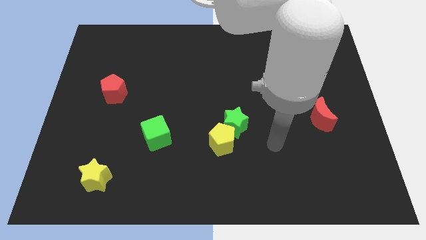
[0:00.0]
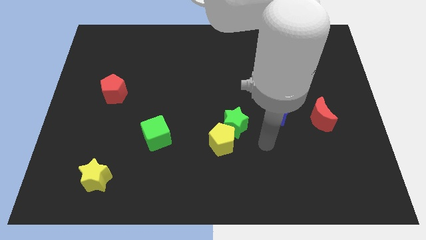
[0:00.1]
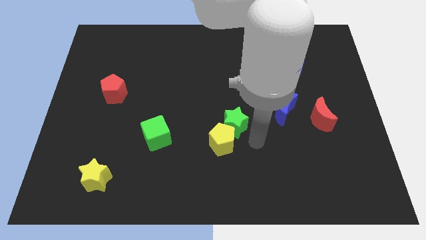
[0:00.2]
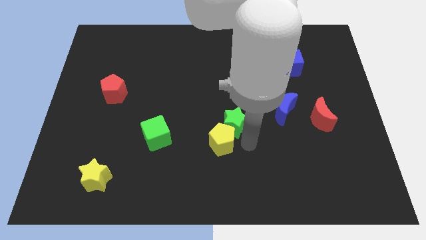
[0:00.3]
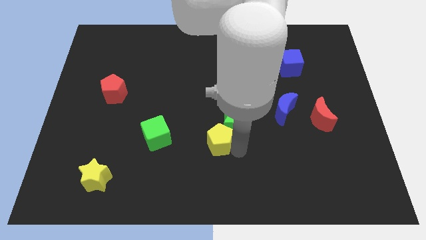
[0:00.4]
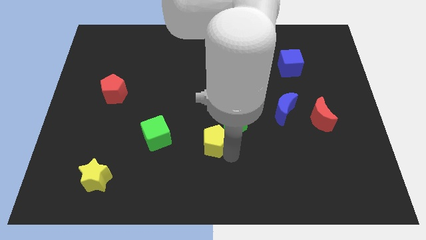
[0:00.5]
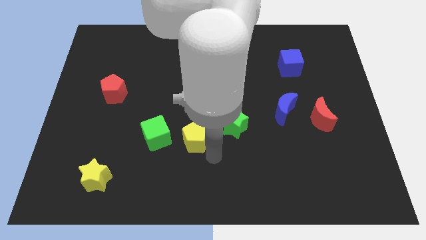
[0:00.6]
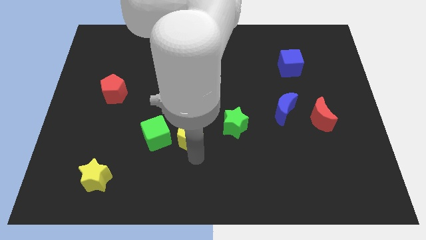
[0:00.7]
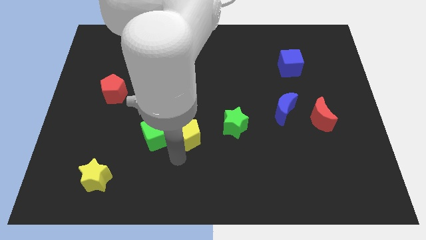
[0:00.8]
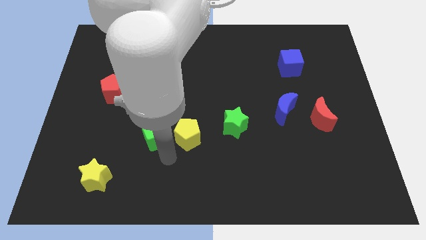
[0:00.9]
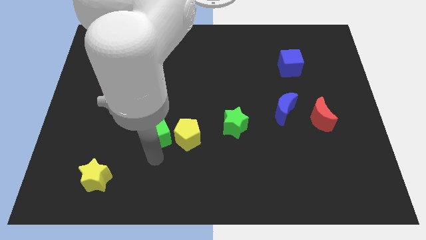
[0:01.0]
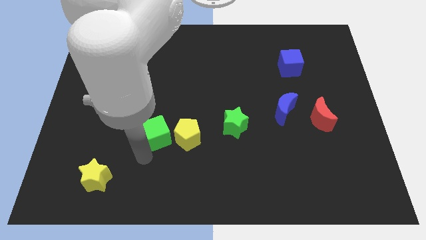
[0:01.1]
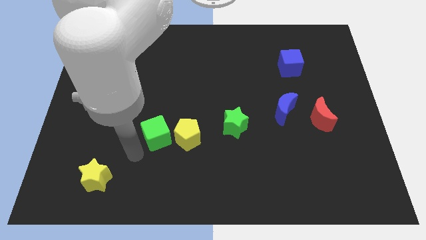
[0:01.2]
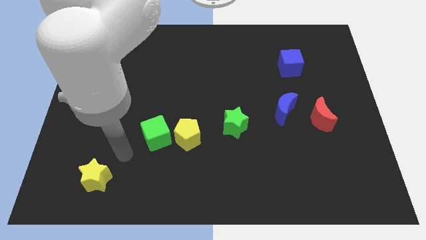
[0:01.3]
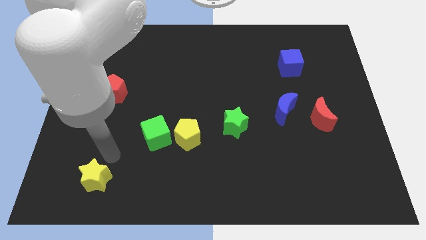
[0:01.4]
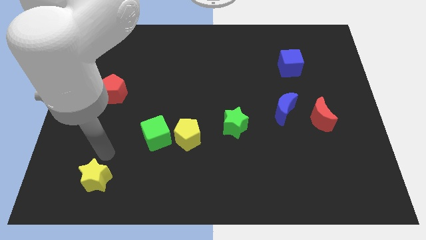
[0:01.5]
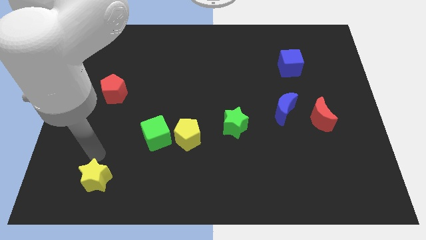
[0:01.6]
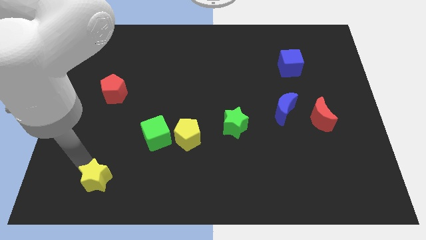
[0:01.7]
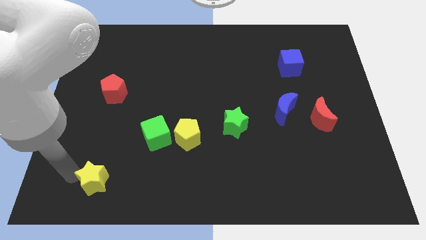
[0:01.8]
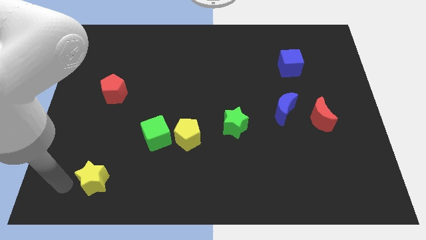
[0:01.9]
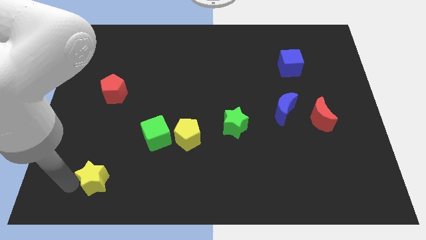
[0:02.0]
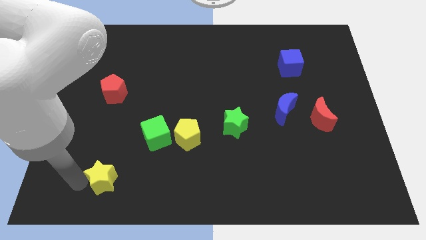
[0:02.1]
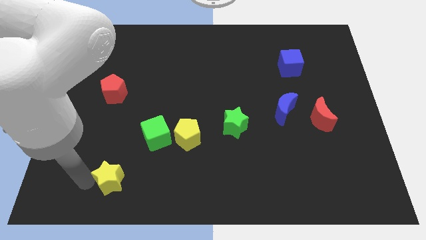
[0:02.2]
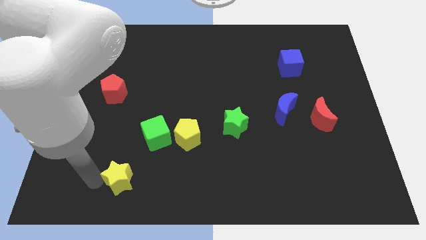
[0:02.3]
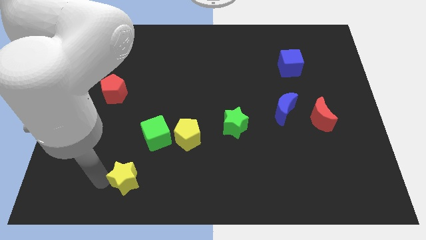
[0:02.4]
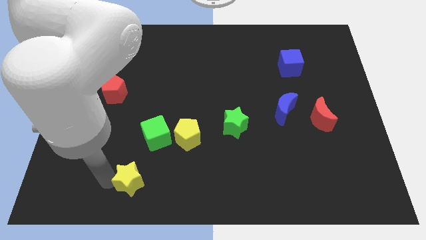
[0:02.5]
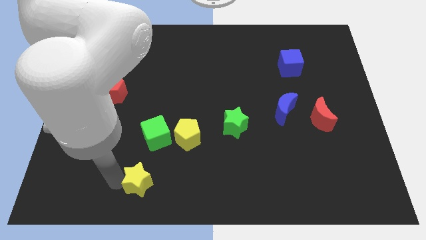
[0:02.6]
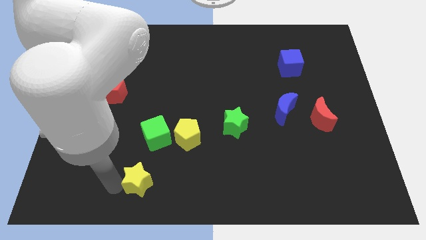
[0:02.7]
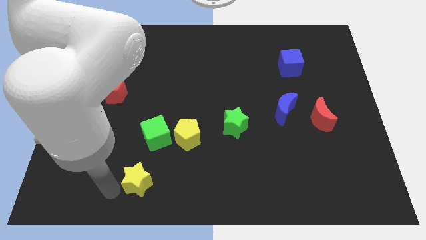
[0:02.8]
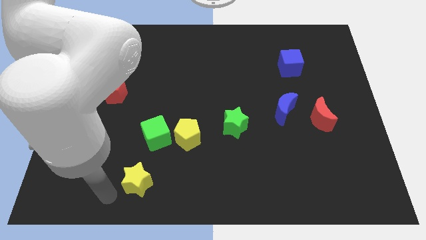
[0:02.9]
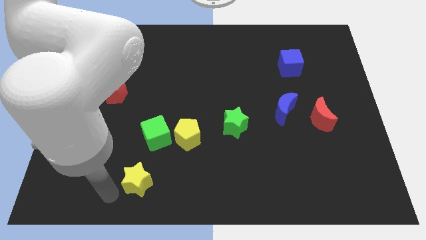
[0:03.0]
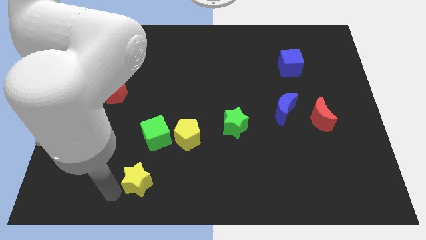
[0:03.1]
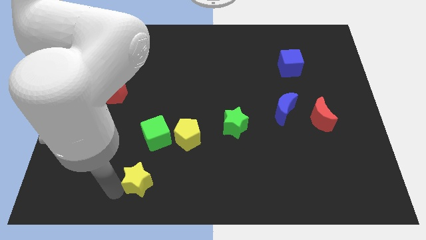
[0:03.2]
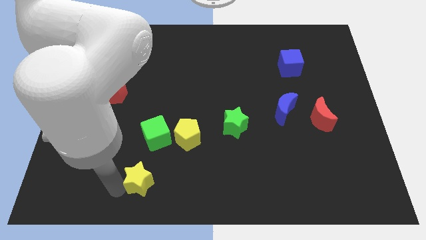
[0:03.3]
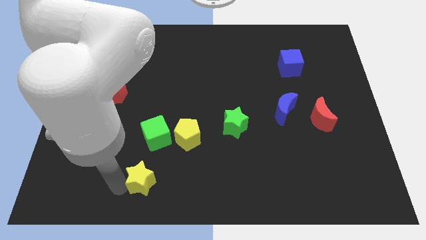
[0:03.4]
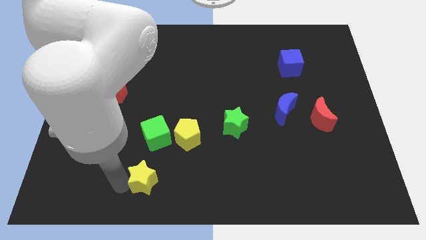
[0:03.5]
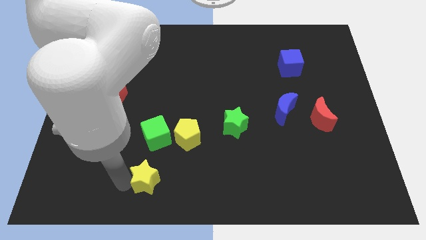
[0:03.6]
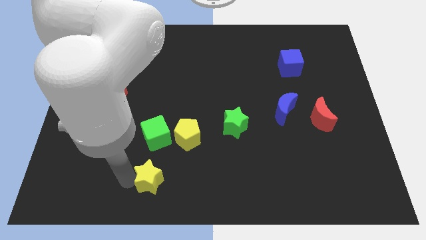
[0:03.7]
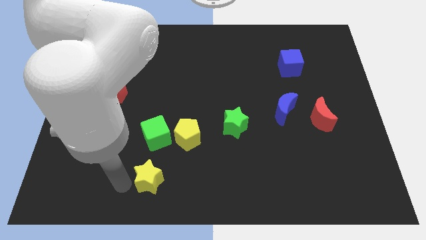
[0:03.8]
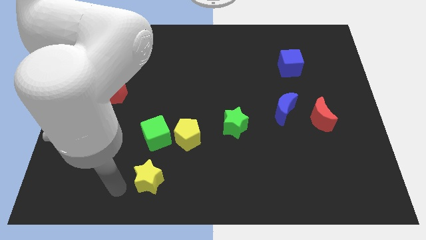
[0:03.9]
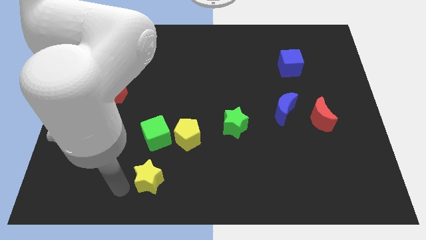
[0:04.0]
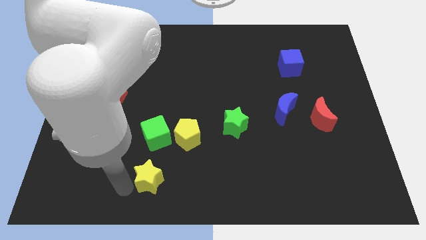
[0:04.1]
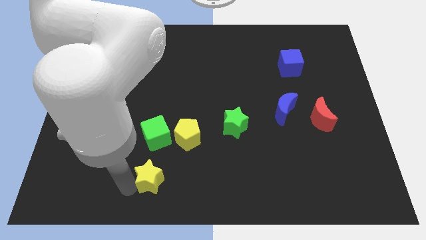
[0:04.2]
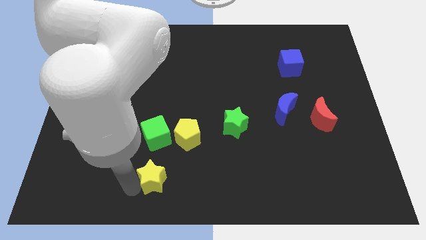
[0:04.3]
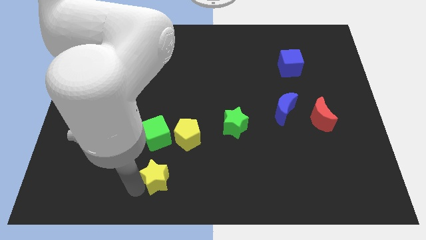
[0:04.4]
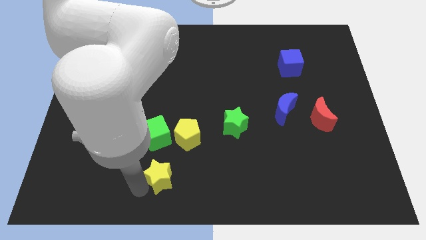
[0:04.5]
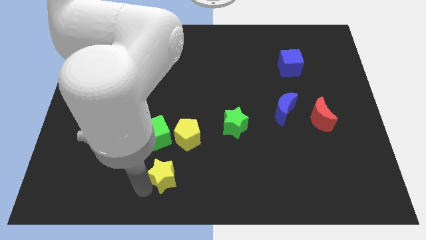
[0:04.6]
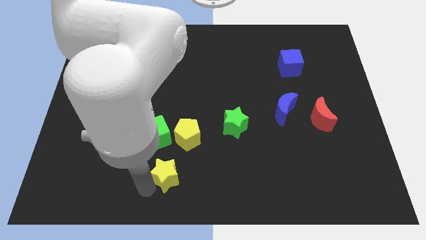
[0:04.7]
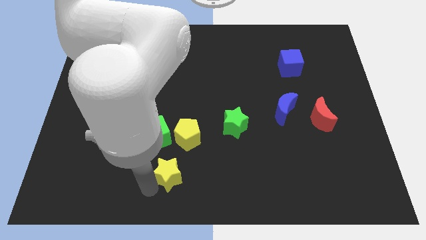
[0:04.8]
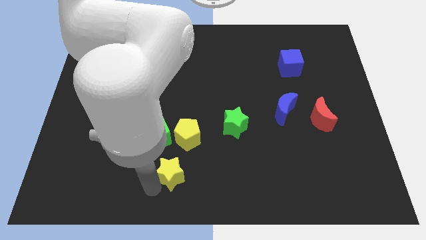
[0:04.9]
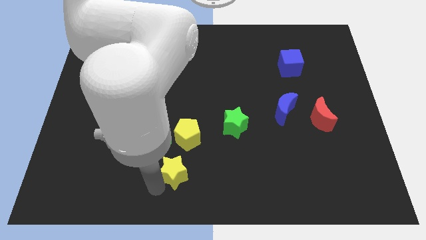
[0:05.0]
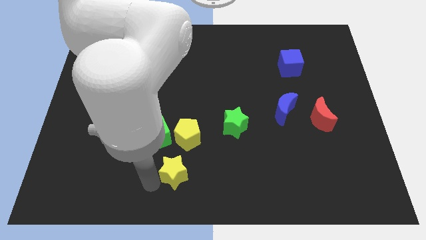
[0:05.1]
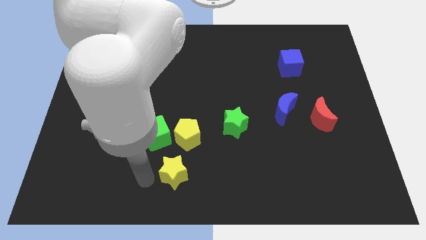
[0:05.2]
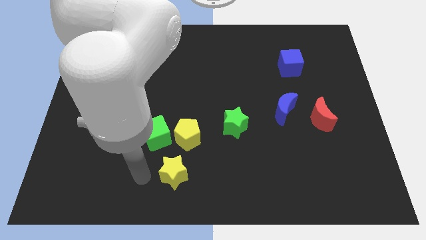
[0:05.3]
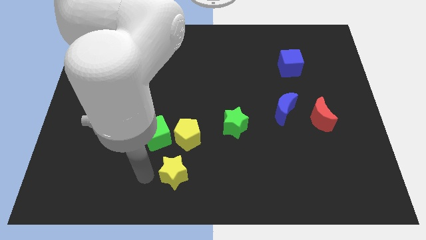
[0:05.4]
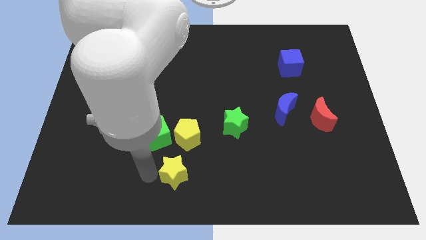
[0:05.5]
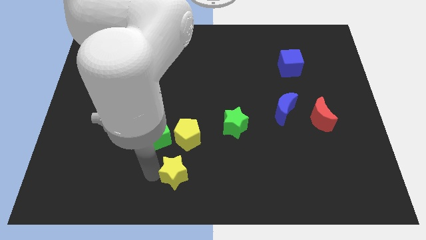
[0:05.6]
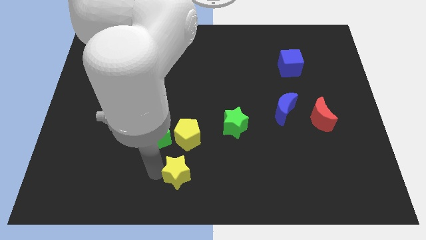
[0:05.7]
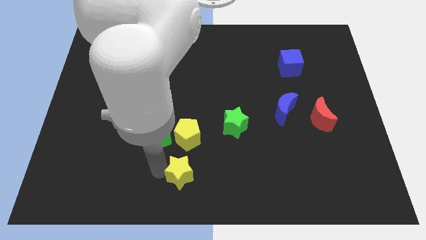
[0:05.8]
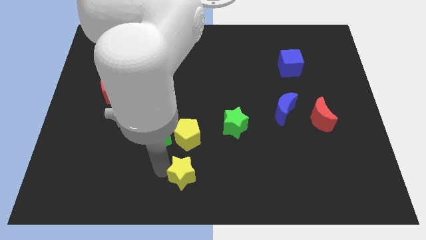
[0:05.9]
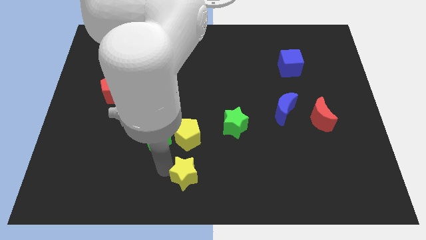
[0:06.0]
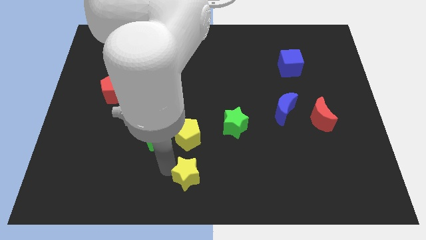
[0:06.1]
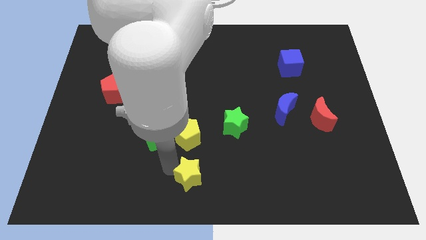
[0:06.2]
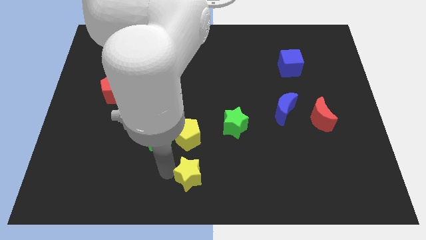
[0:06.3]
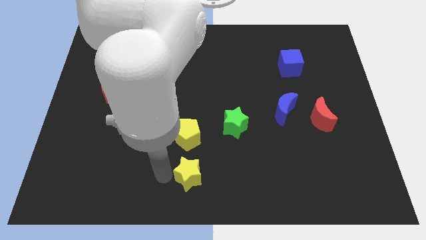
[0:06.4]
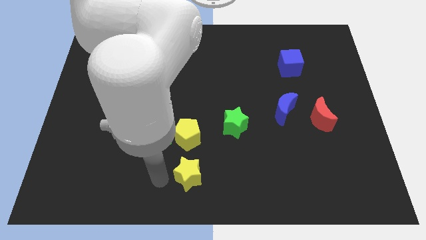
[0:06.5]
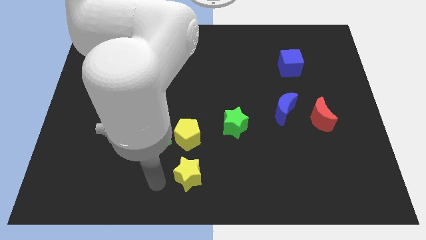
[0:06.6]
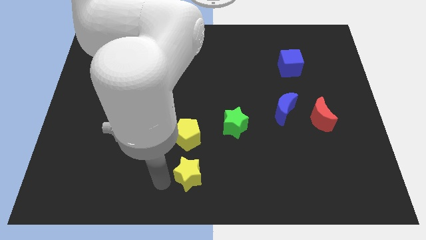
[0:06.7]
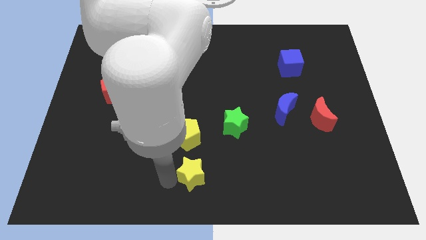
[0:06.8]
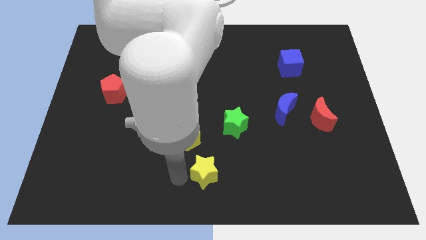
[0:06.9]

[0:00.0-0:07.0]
push the yellow star to the right

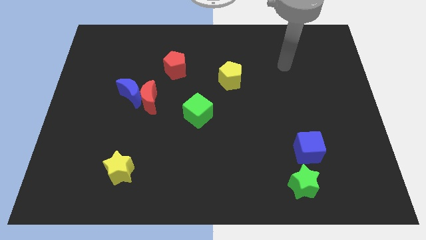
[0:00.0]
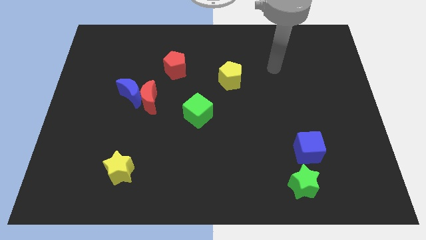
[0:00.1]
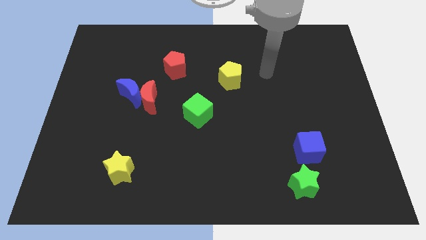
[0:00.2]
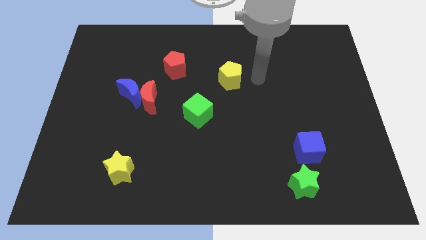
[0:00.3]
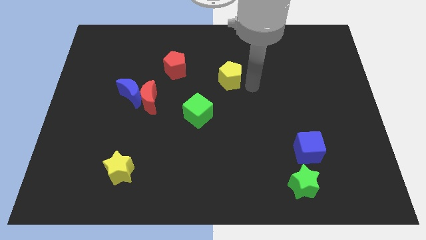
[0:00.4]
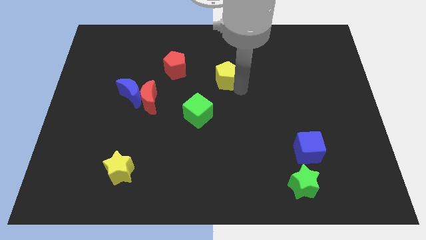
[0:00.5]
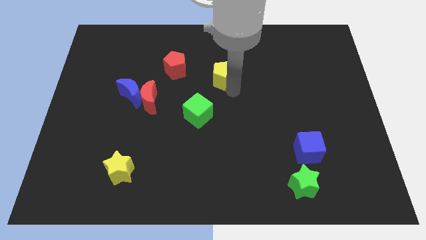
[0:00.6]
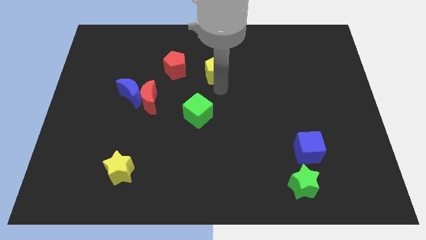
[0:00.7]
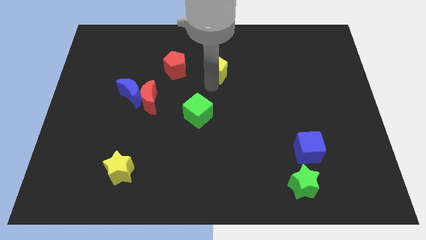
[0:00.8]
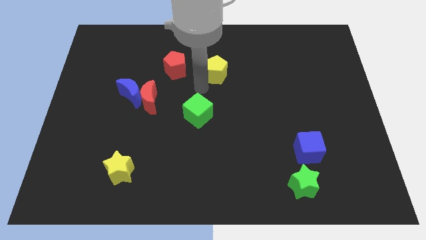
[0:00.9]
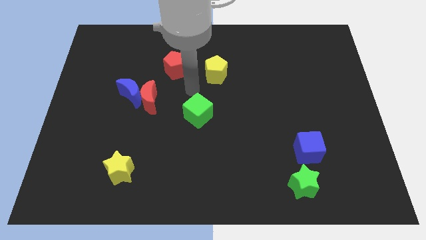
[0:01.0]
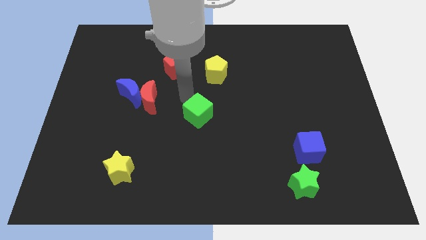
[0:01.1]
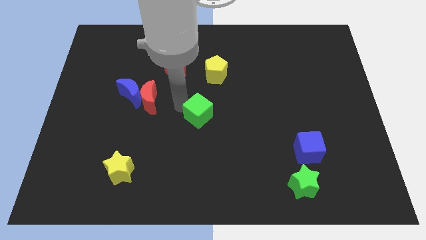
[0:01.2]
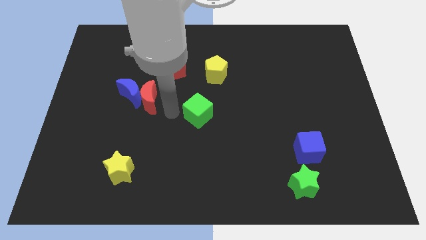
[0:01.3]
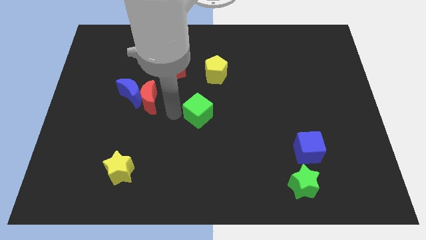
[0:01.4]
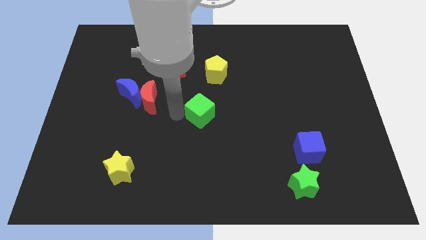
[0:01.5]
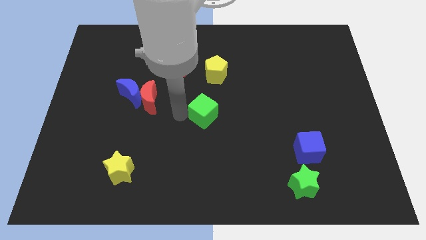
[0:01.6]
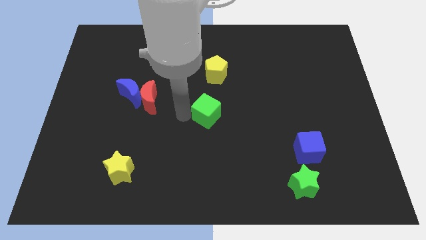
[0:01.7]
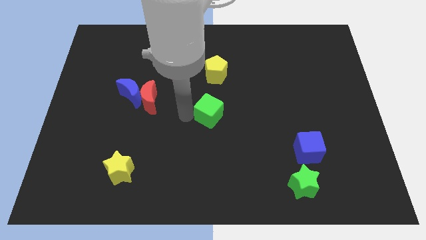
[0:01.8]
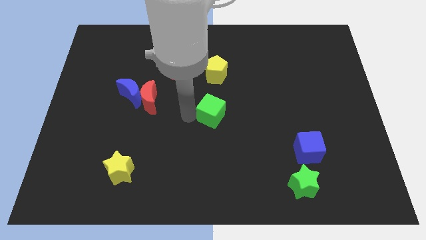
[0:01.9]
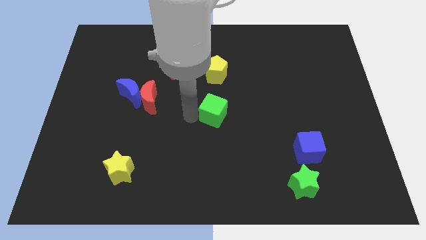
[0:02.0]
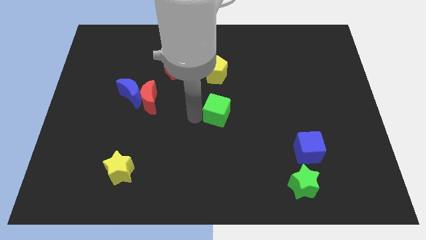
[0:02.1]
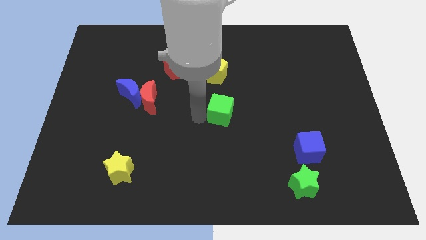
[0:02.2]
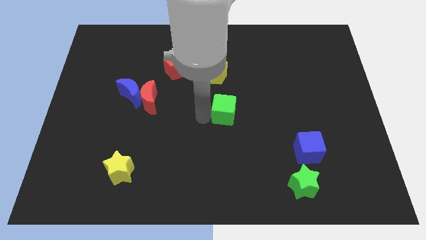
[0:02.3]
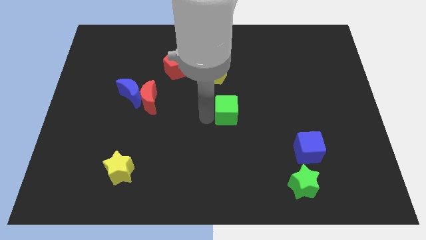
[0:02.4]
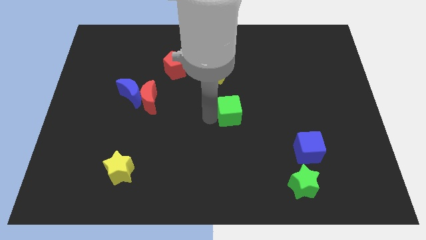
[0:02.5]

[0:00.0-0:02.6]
push the green cube slightly to the right
